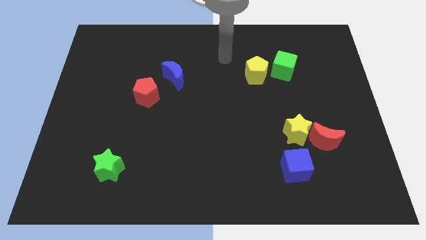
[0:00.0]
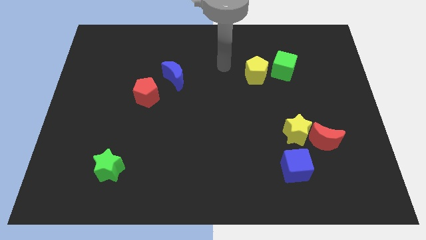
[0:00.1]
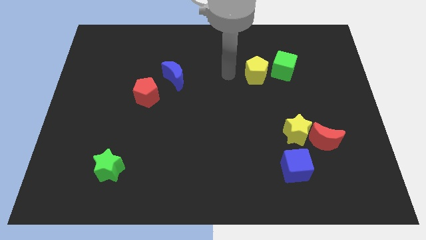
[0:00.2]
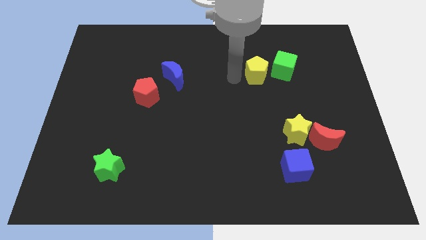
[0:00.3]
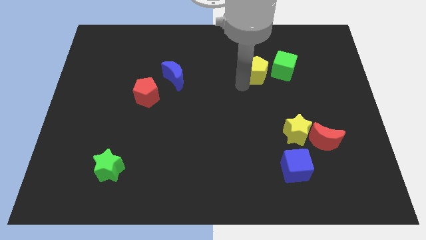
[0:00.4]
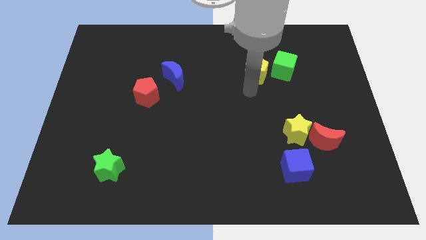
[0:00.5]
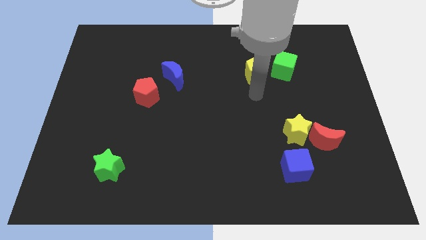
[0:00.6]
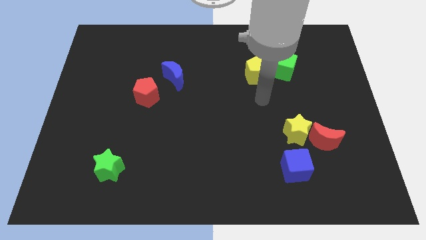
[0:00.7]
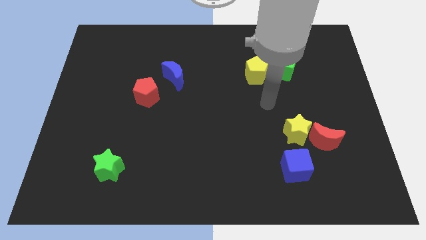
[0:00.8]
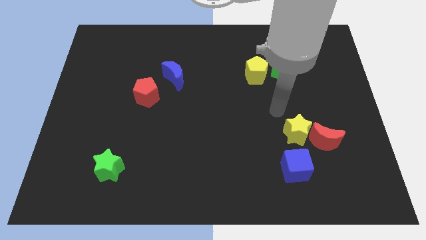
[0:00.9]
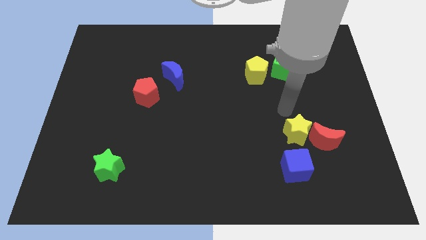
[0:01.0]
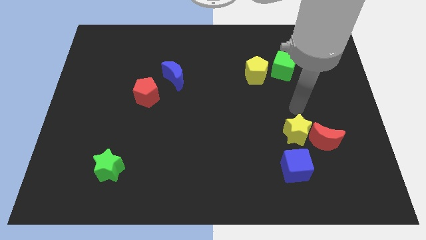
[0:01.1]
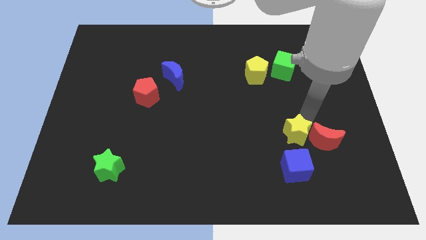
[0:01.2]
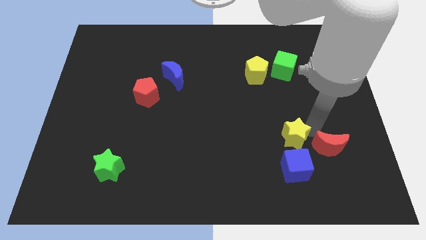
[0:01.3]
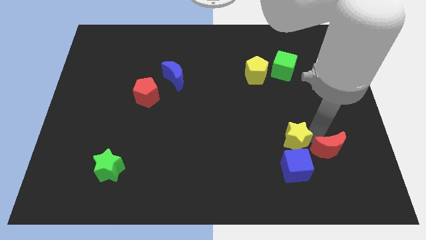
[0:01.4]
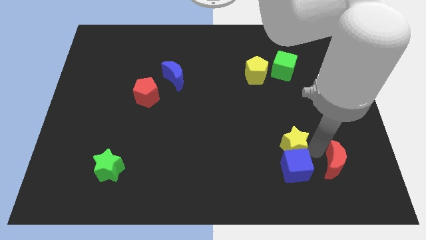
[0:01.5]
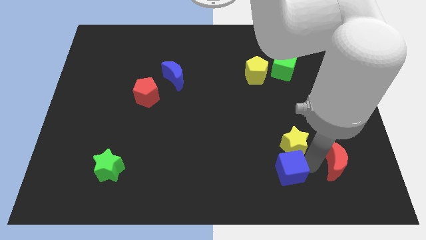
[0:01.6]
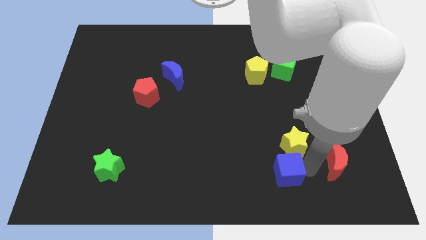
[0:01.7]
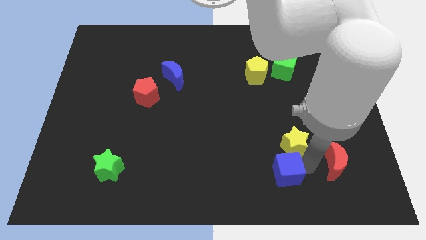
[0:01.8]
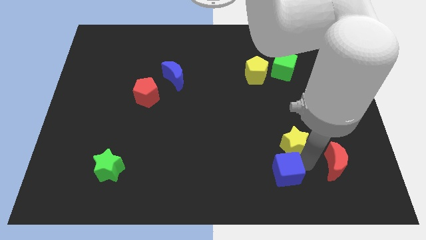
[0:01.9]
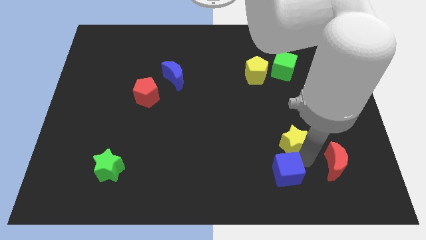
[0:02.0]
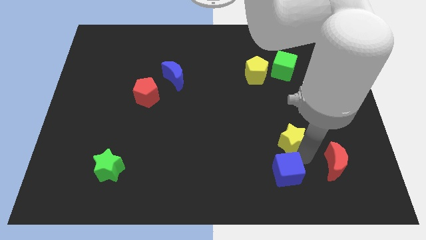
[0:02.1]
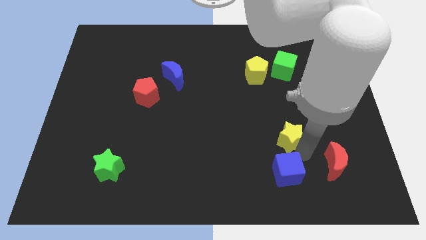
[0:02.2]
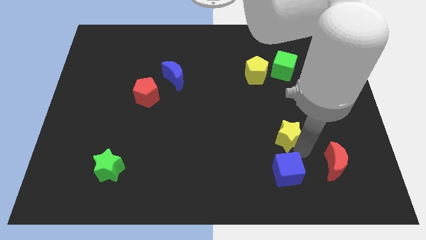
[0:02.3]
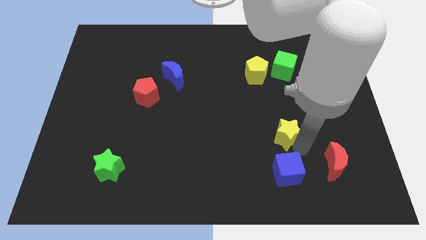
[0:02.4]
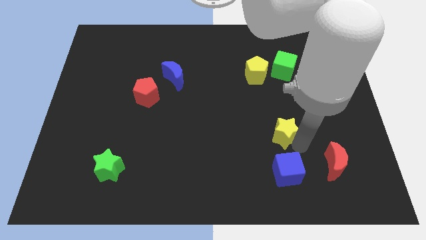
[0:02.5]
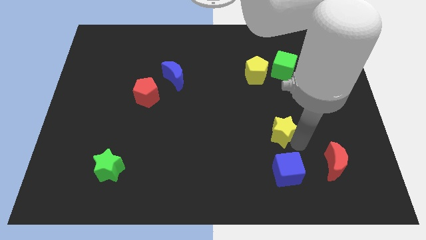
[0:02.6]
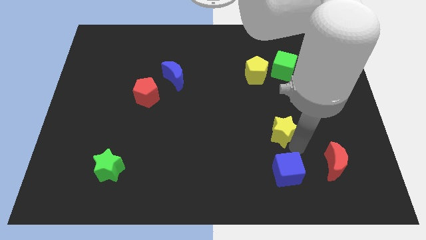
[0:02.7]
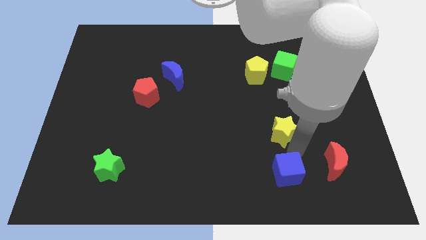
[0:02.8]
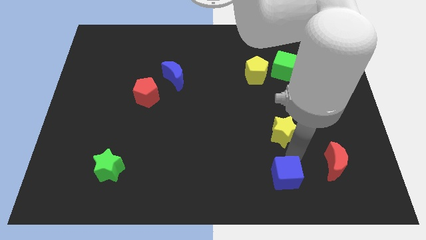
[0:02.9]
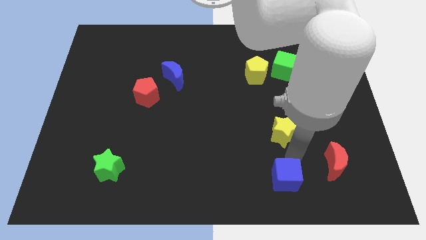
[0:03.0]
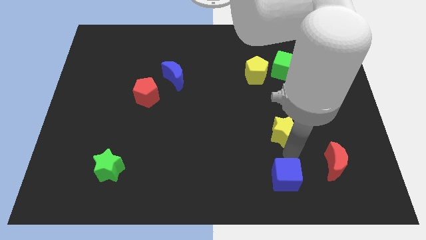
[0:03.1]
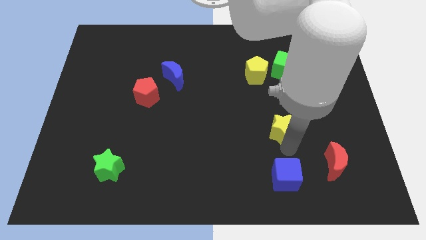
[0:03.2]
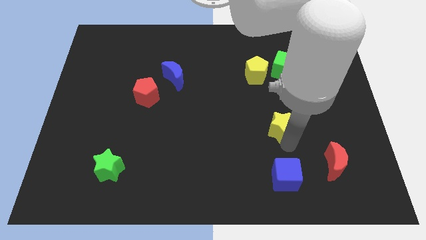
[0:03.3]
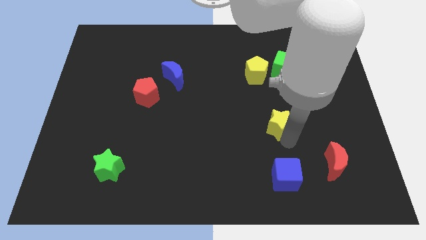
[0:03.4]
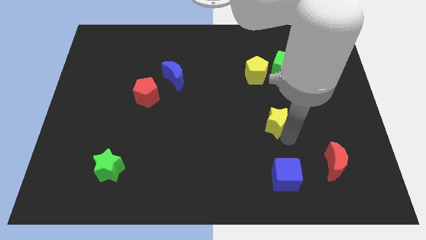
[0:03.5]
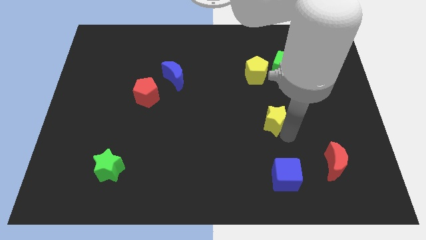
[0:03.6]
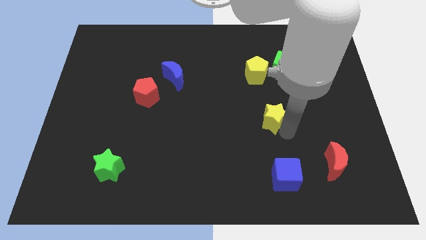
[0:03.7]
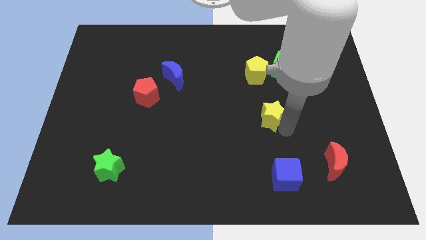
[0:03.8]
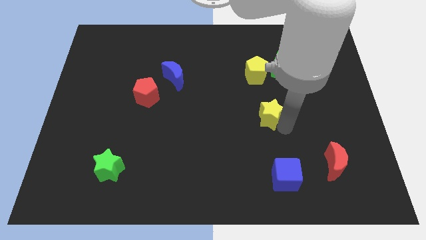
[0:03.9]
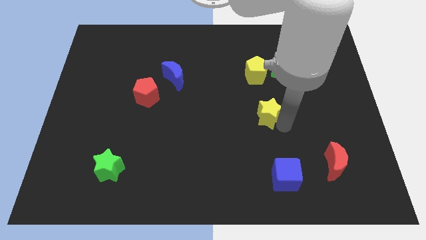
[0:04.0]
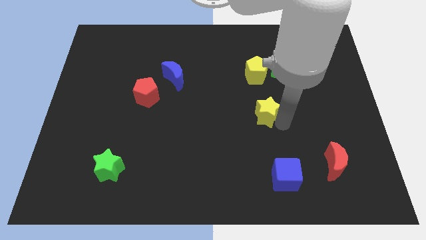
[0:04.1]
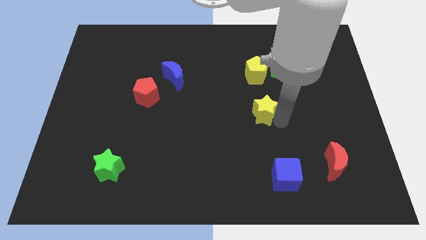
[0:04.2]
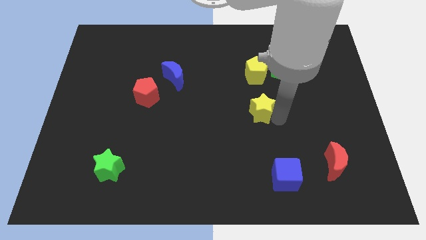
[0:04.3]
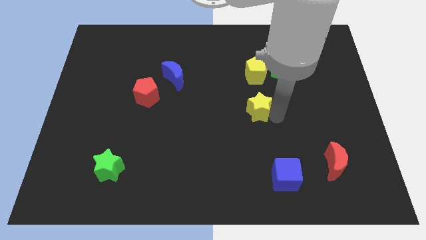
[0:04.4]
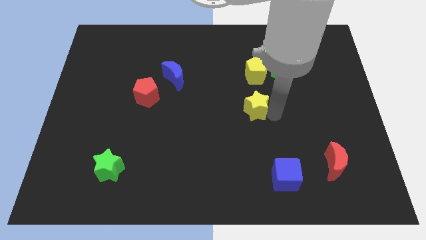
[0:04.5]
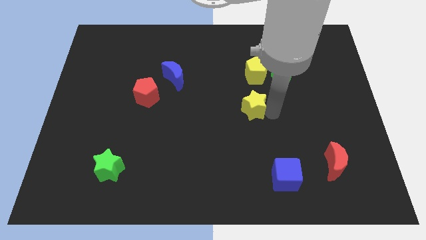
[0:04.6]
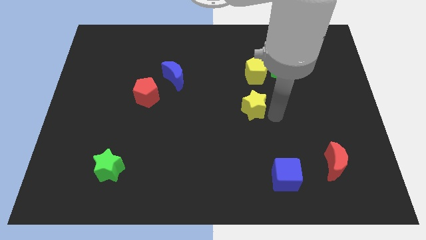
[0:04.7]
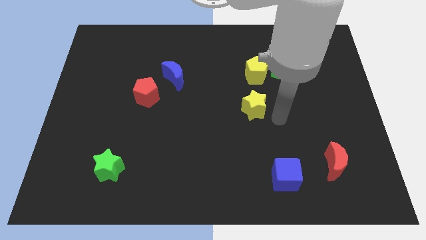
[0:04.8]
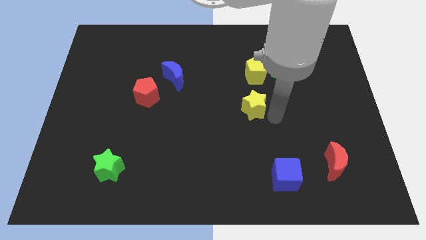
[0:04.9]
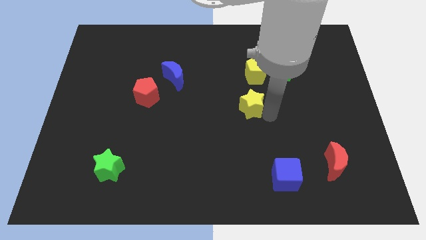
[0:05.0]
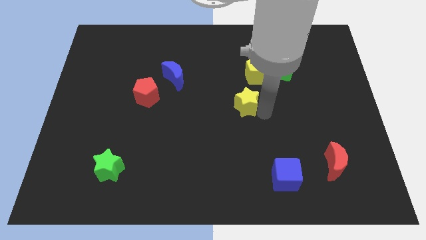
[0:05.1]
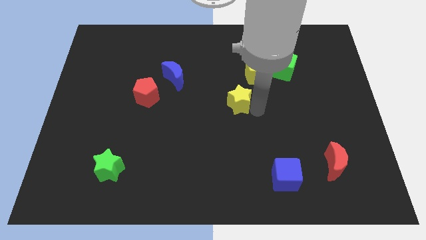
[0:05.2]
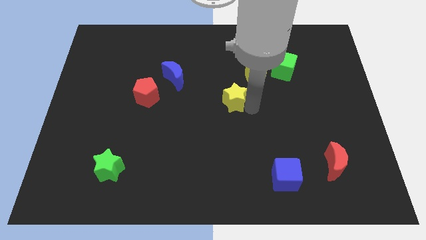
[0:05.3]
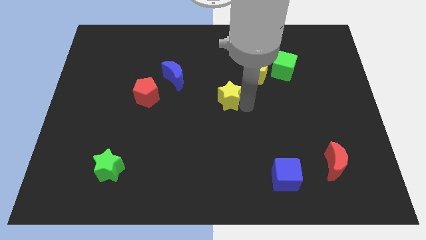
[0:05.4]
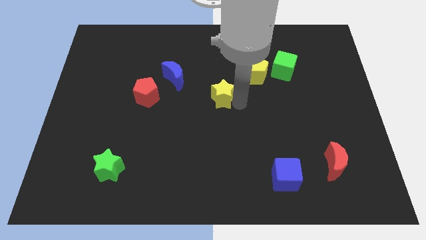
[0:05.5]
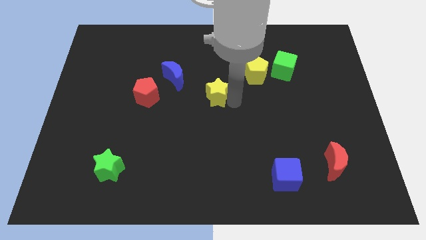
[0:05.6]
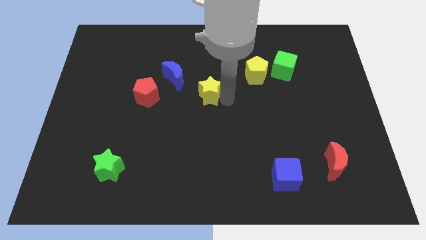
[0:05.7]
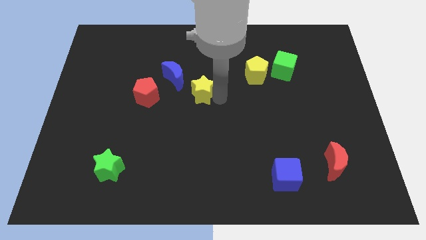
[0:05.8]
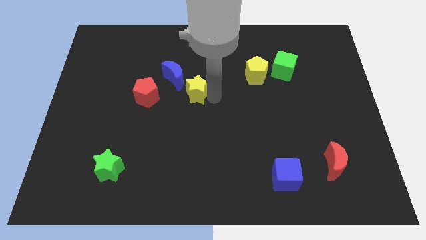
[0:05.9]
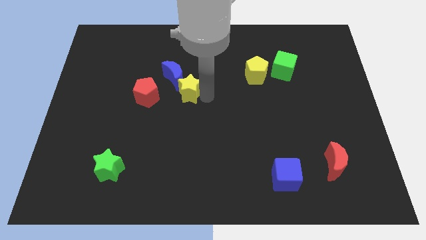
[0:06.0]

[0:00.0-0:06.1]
put the yellow star close to the blue moon

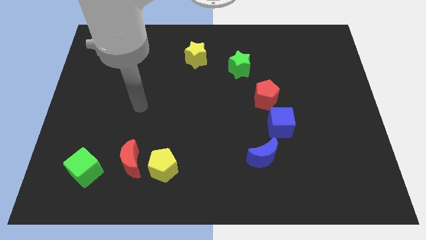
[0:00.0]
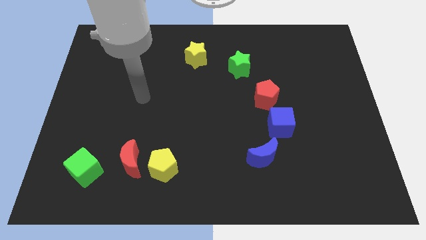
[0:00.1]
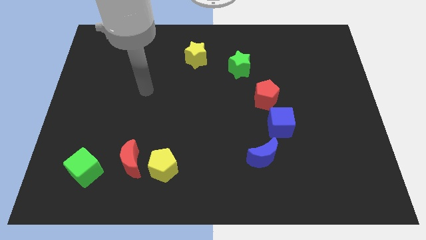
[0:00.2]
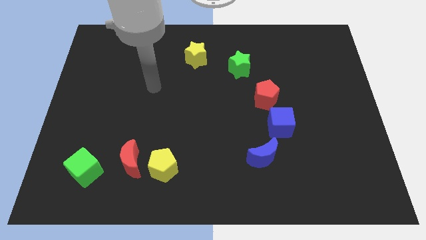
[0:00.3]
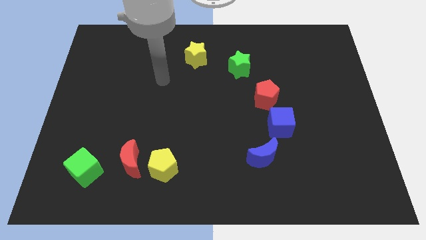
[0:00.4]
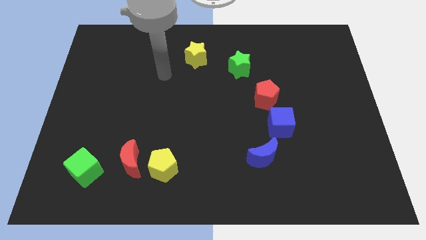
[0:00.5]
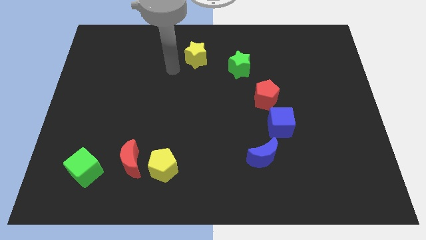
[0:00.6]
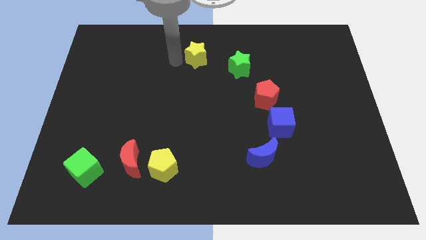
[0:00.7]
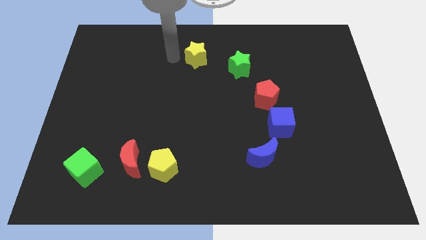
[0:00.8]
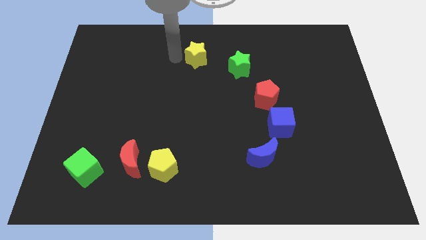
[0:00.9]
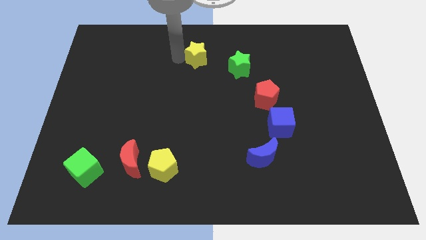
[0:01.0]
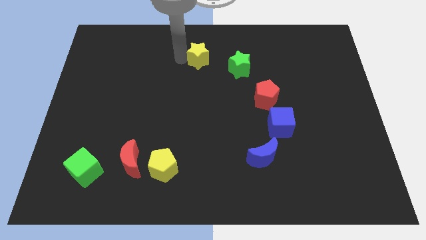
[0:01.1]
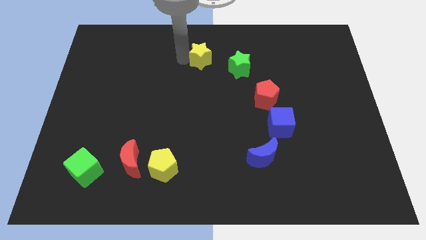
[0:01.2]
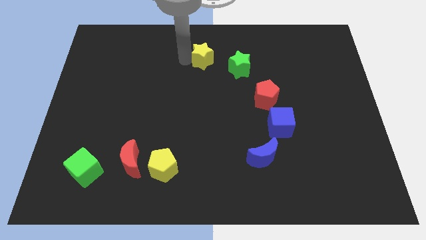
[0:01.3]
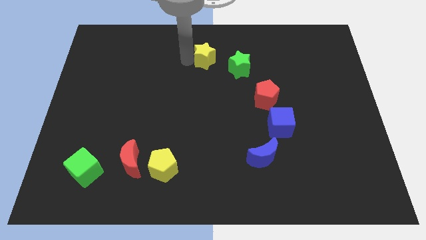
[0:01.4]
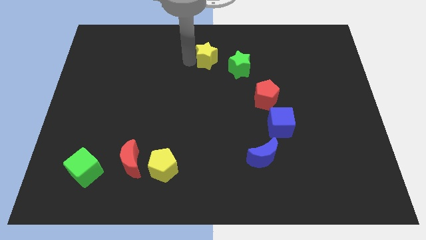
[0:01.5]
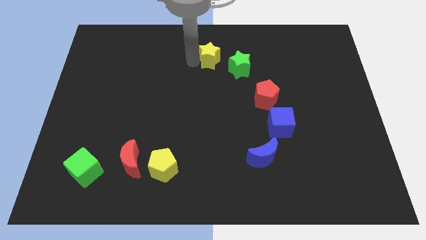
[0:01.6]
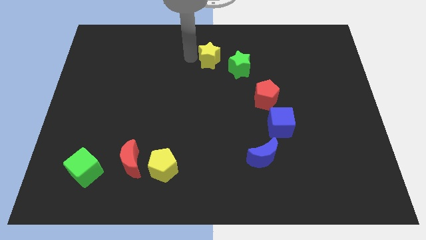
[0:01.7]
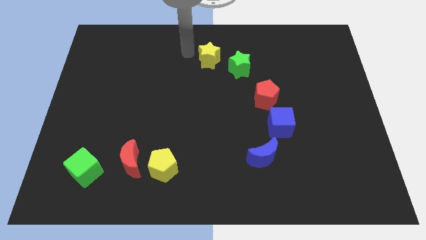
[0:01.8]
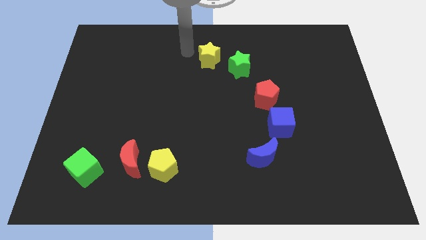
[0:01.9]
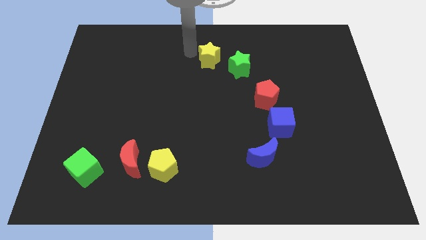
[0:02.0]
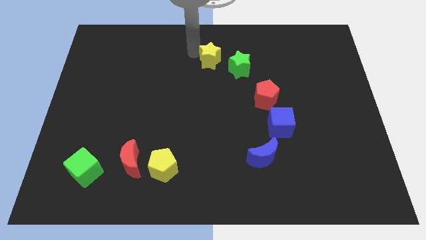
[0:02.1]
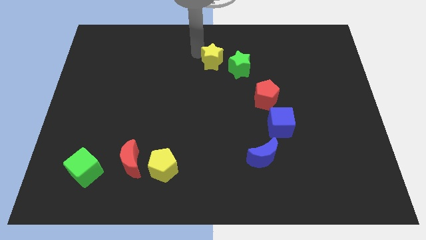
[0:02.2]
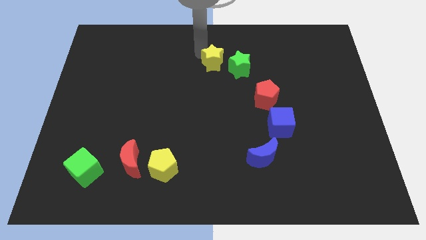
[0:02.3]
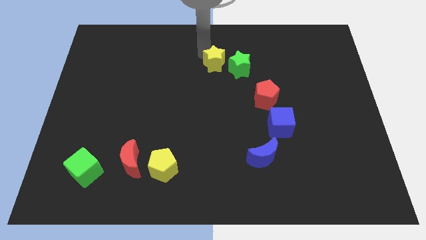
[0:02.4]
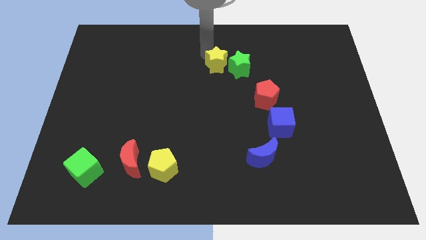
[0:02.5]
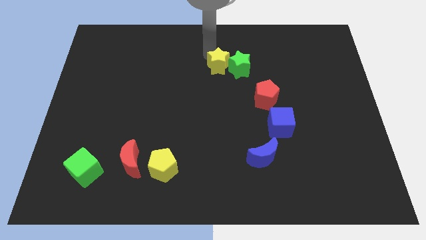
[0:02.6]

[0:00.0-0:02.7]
move the yellow star towards the green star
